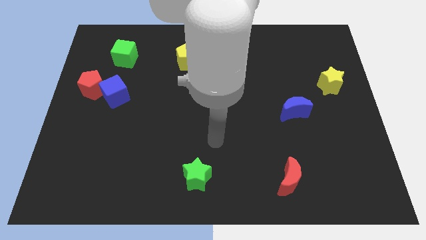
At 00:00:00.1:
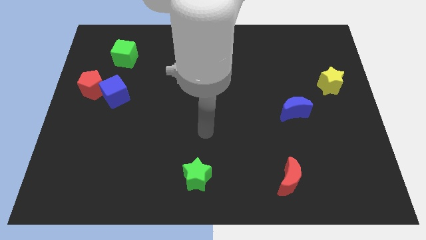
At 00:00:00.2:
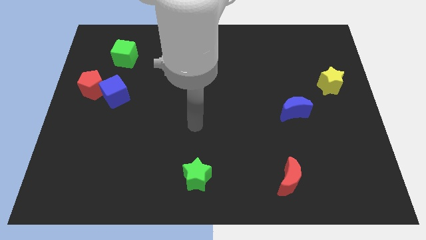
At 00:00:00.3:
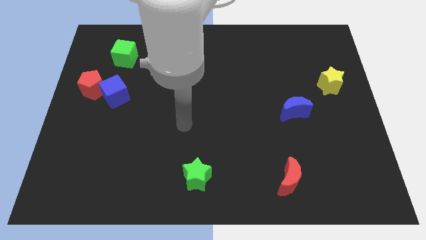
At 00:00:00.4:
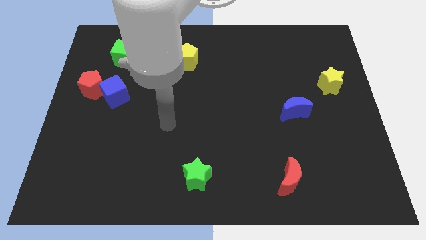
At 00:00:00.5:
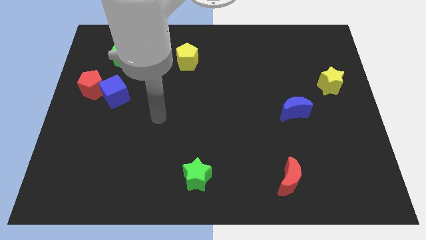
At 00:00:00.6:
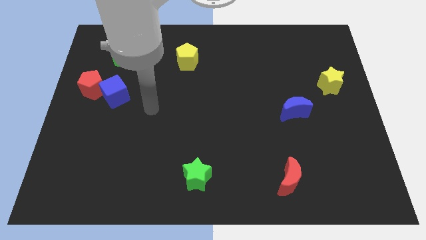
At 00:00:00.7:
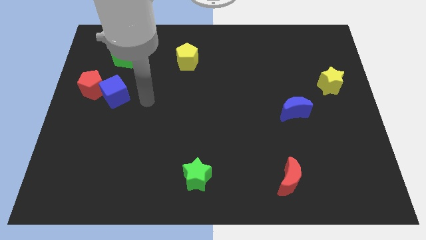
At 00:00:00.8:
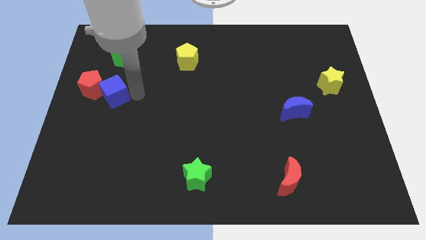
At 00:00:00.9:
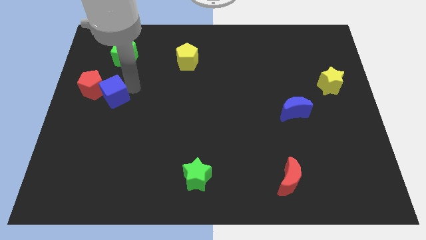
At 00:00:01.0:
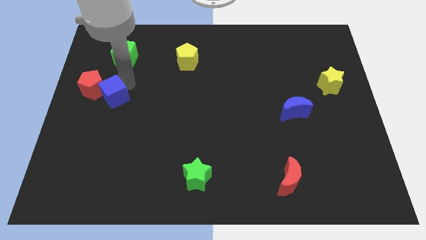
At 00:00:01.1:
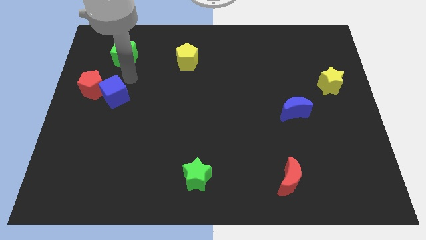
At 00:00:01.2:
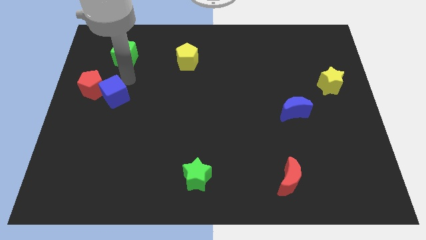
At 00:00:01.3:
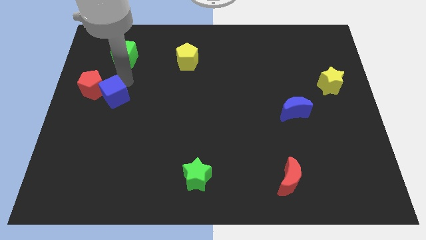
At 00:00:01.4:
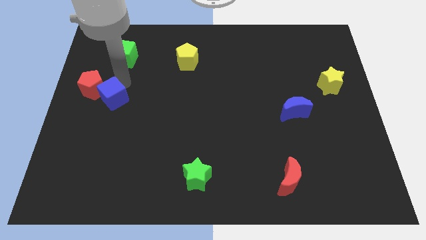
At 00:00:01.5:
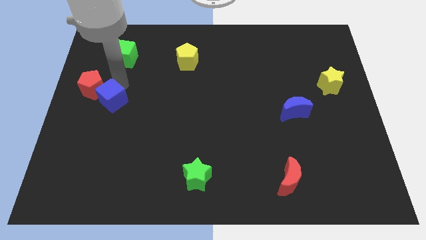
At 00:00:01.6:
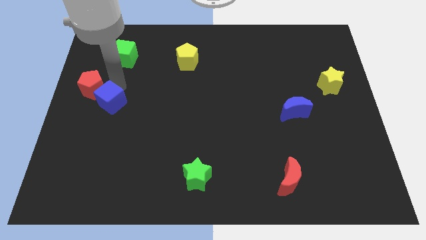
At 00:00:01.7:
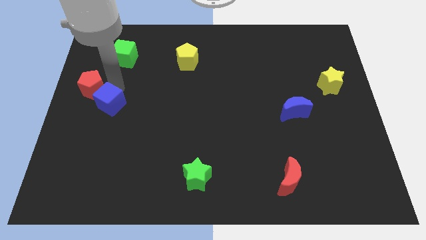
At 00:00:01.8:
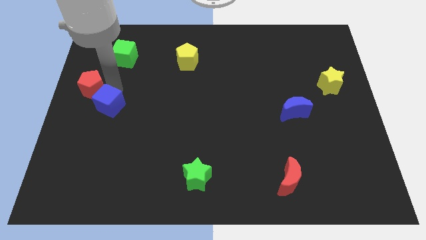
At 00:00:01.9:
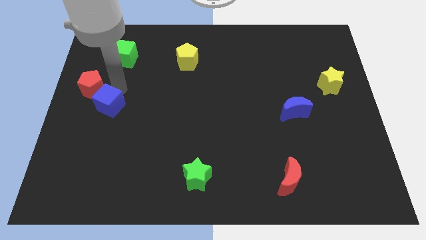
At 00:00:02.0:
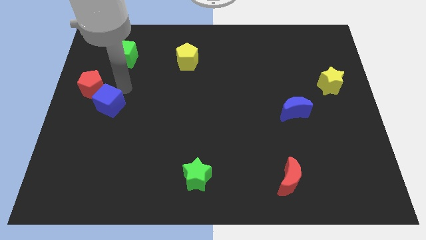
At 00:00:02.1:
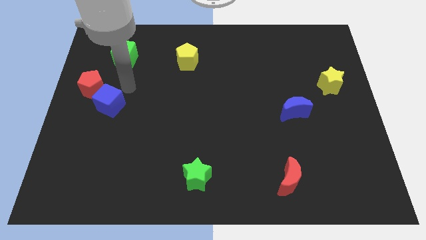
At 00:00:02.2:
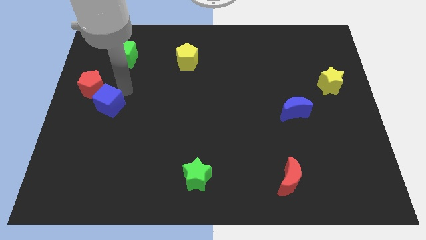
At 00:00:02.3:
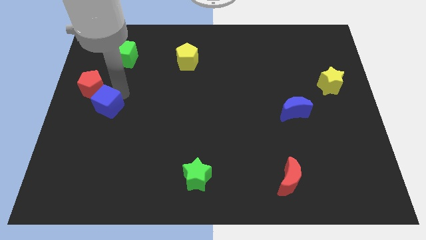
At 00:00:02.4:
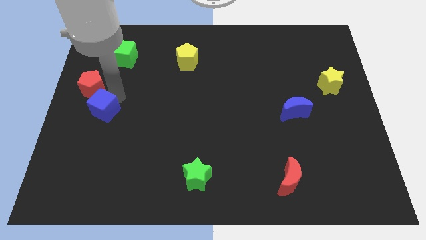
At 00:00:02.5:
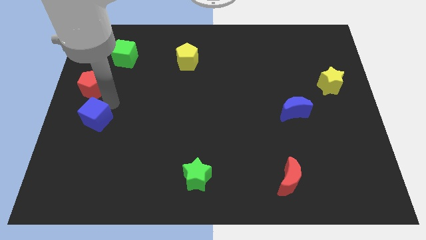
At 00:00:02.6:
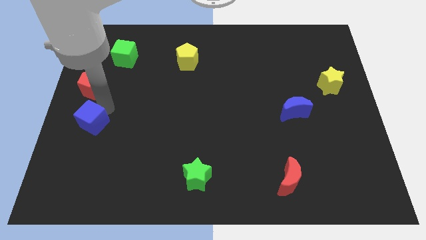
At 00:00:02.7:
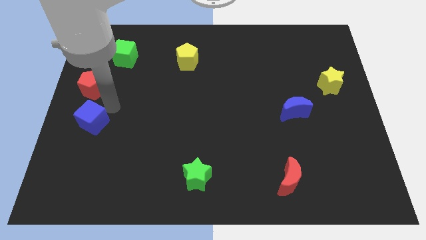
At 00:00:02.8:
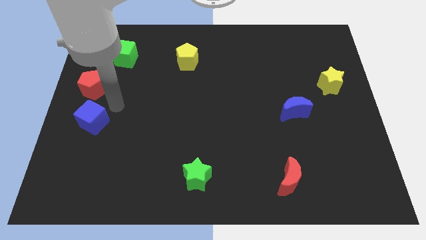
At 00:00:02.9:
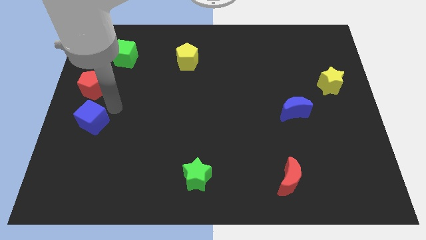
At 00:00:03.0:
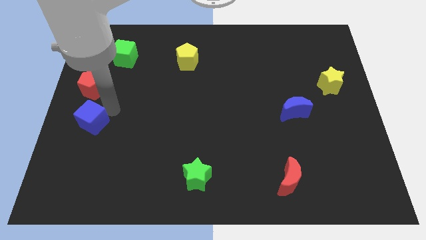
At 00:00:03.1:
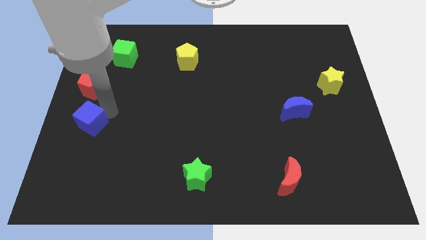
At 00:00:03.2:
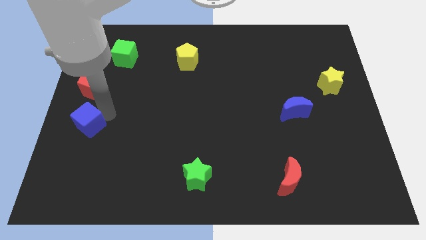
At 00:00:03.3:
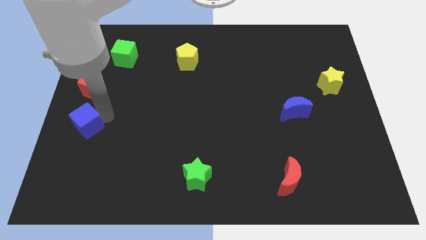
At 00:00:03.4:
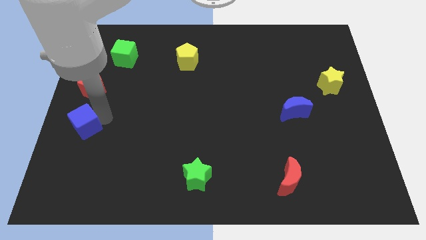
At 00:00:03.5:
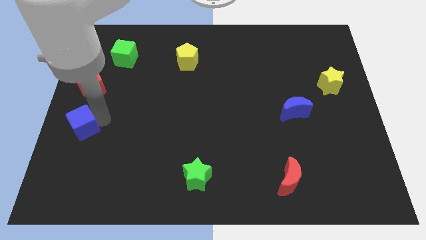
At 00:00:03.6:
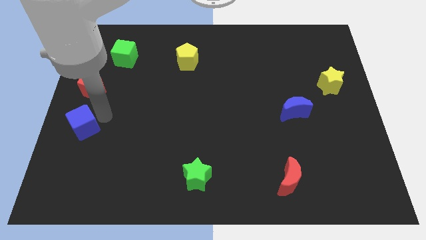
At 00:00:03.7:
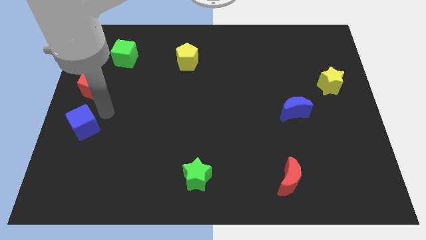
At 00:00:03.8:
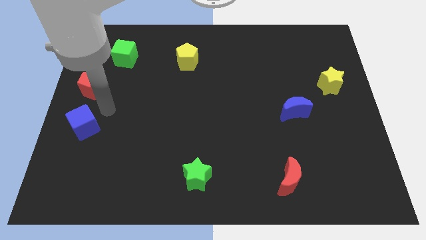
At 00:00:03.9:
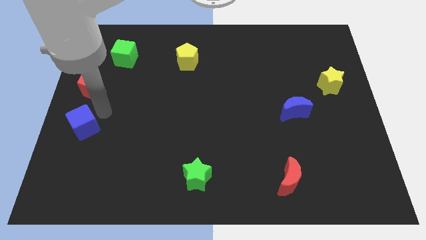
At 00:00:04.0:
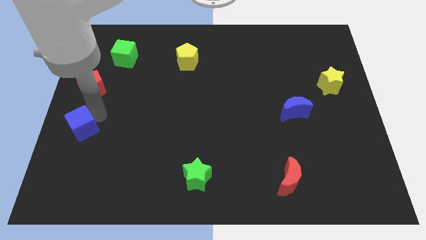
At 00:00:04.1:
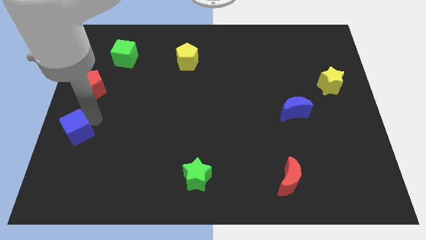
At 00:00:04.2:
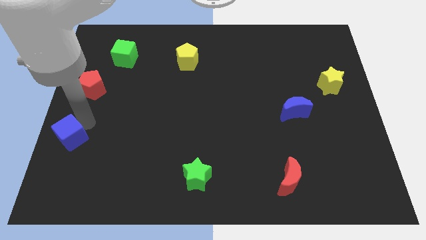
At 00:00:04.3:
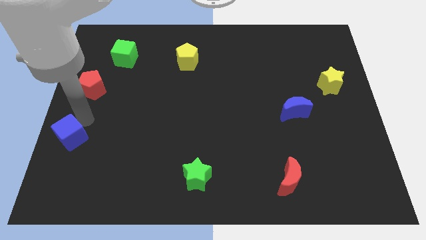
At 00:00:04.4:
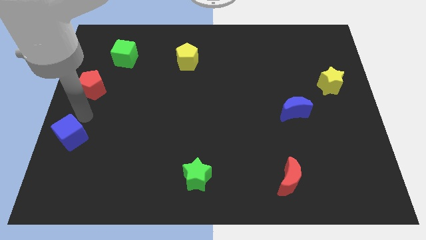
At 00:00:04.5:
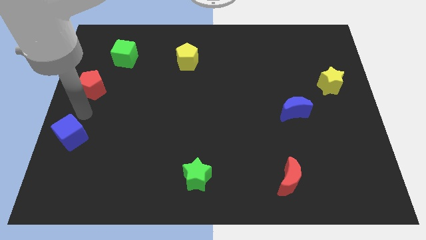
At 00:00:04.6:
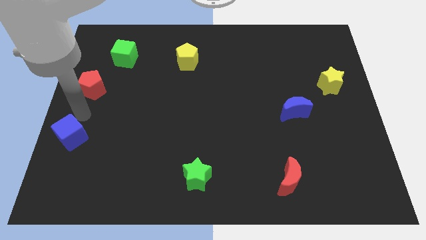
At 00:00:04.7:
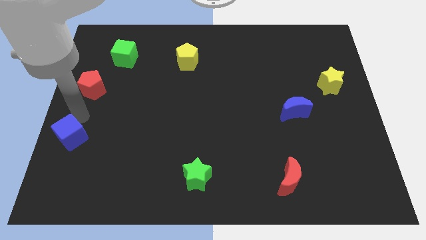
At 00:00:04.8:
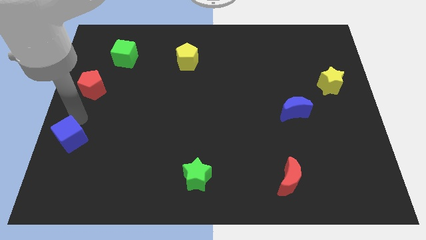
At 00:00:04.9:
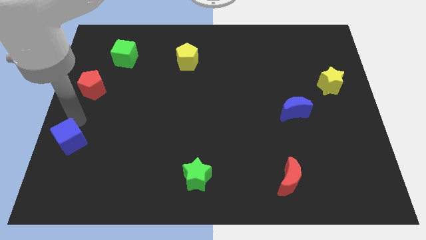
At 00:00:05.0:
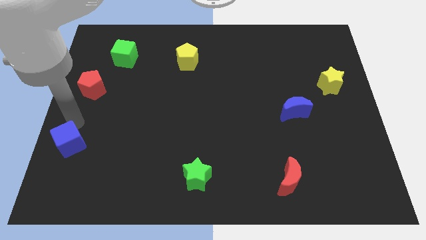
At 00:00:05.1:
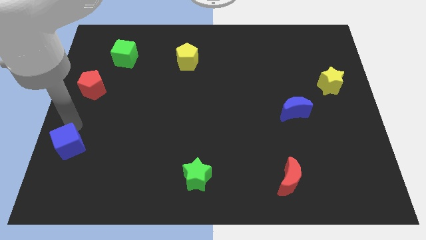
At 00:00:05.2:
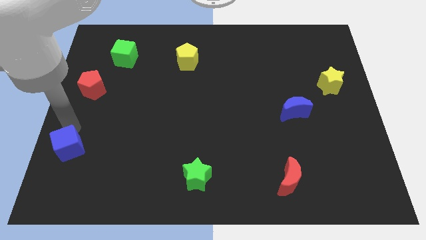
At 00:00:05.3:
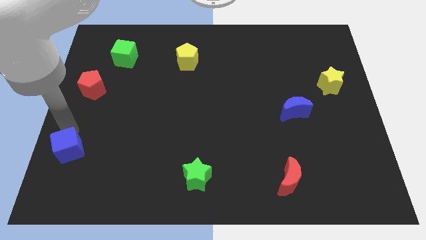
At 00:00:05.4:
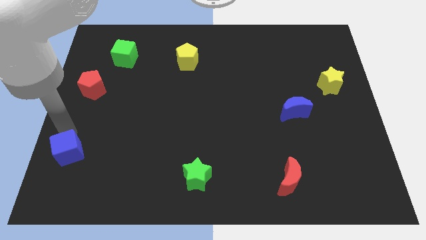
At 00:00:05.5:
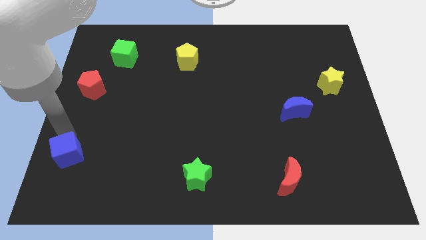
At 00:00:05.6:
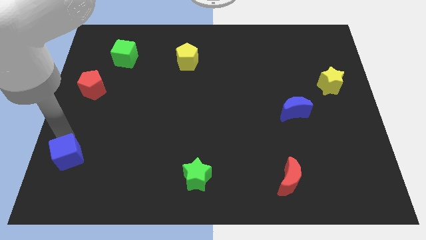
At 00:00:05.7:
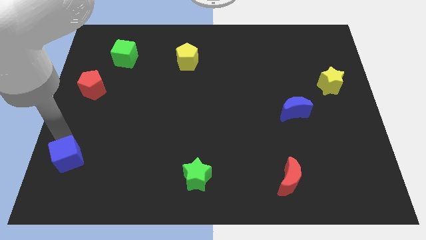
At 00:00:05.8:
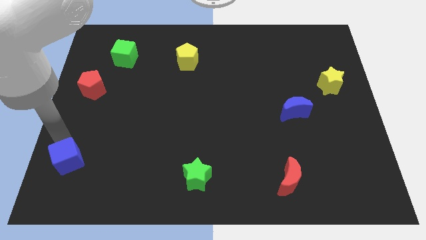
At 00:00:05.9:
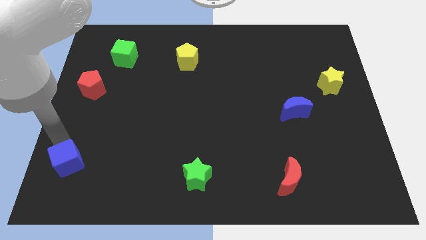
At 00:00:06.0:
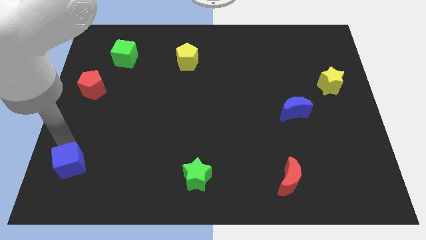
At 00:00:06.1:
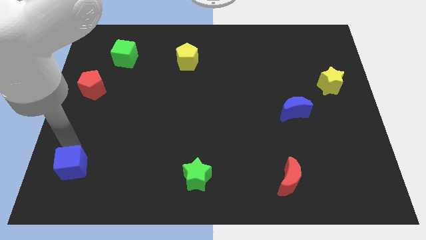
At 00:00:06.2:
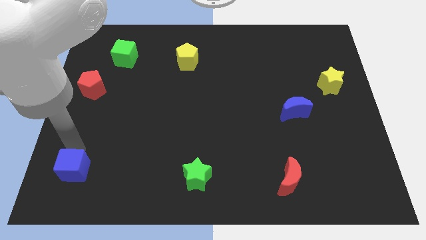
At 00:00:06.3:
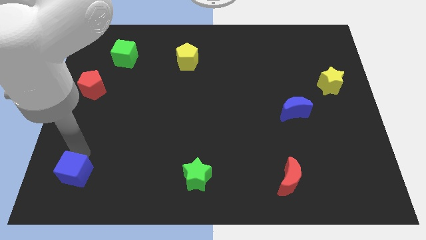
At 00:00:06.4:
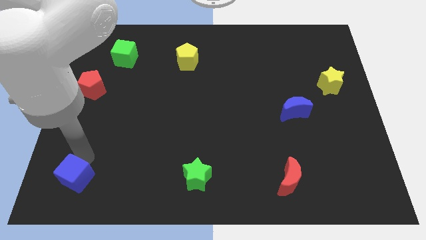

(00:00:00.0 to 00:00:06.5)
move the blue cube to the bottom left

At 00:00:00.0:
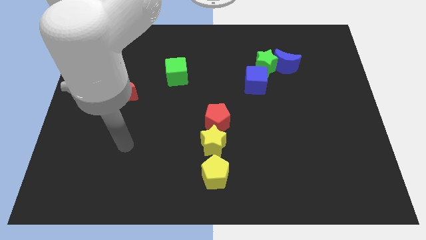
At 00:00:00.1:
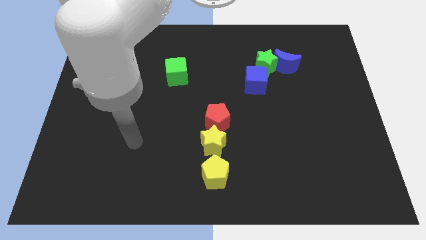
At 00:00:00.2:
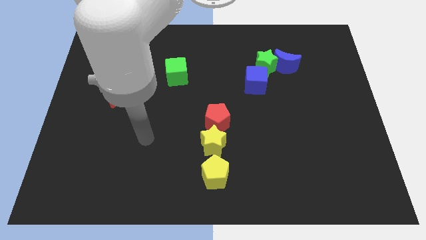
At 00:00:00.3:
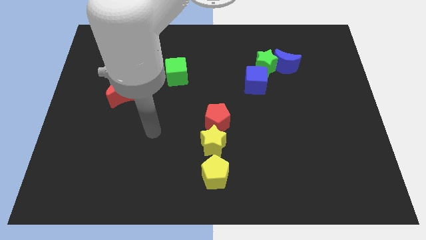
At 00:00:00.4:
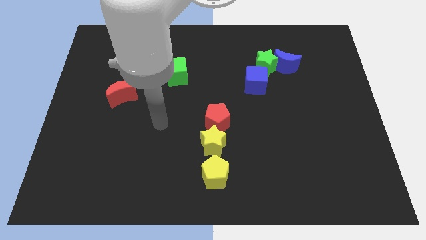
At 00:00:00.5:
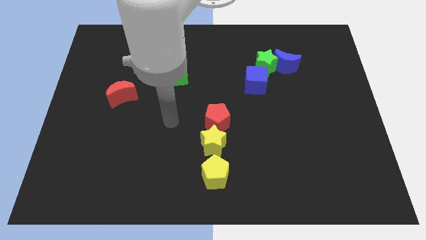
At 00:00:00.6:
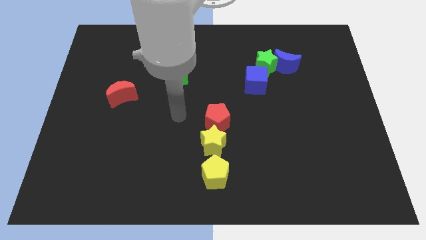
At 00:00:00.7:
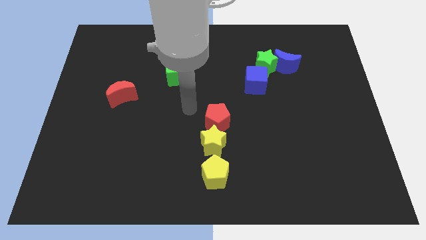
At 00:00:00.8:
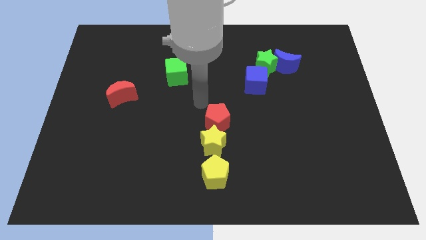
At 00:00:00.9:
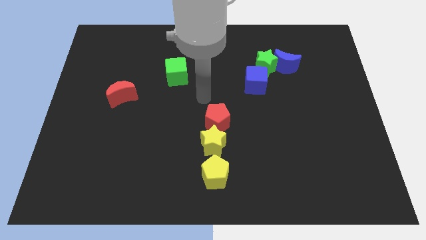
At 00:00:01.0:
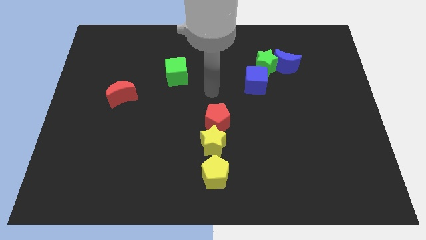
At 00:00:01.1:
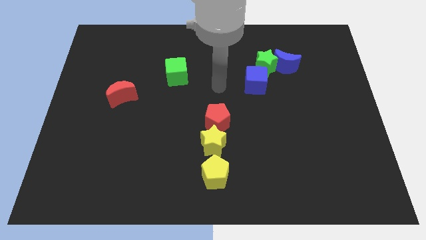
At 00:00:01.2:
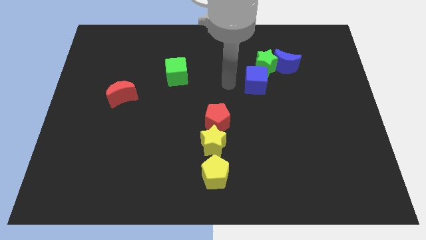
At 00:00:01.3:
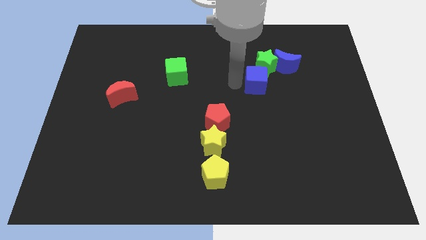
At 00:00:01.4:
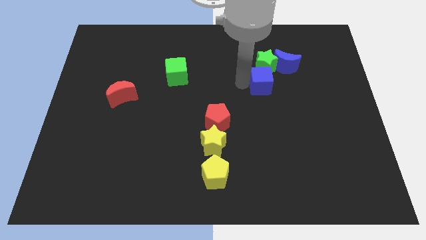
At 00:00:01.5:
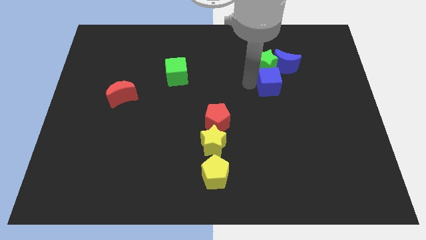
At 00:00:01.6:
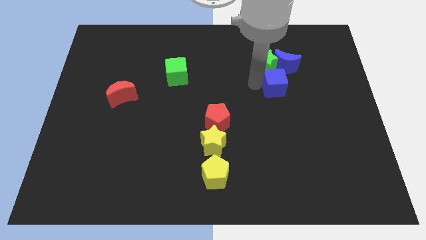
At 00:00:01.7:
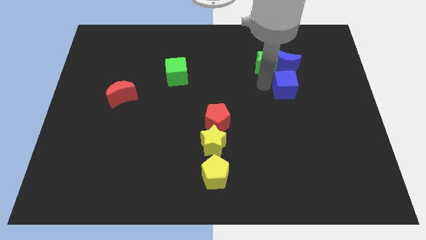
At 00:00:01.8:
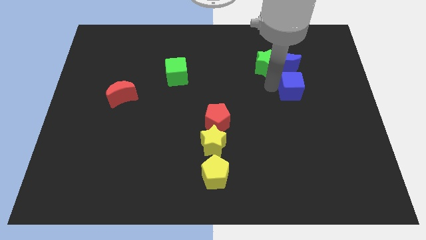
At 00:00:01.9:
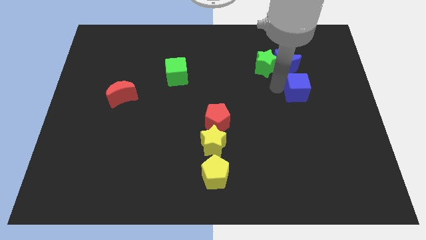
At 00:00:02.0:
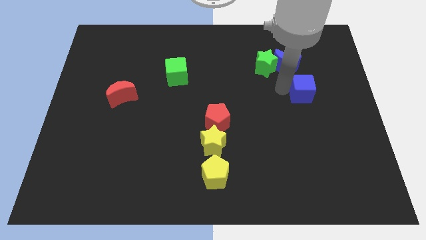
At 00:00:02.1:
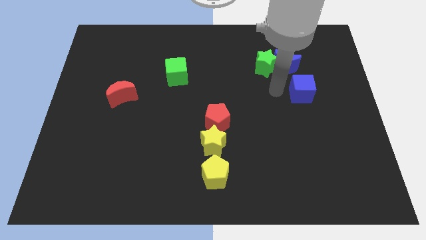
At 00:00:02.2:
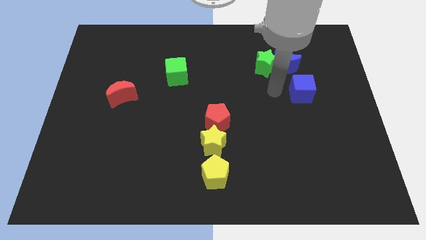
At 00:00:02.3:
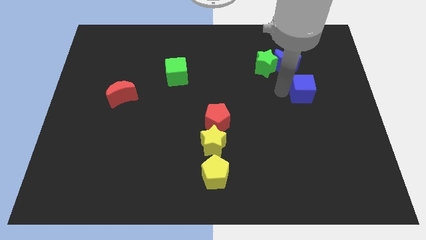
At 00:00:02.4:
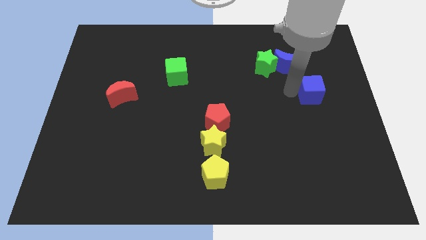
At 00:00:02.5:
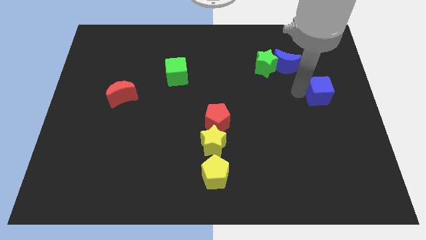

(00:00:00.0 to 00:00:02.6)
push the blue cube to the right side of the board
